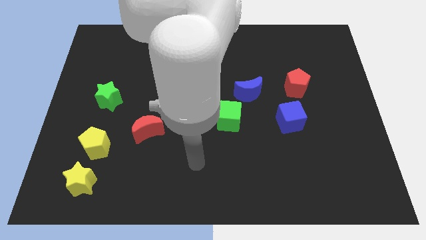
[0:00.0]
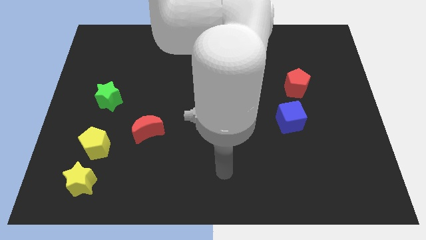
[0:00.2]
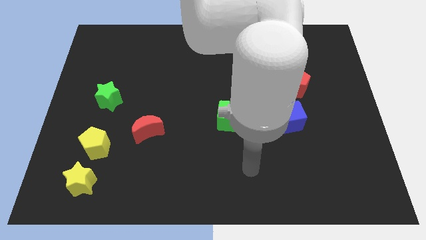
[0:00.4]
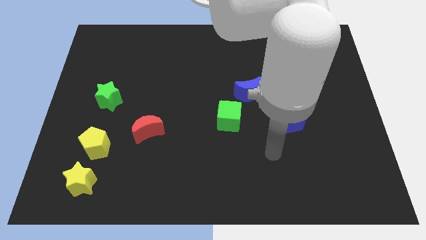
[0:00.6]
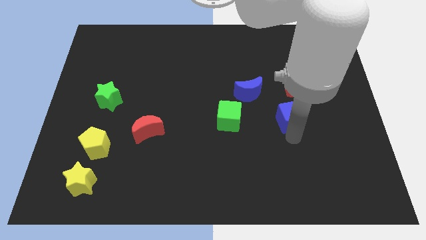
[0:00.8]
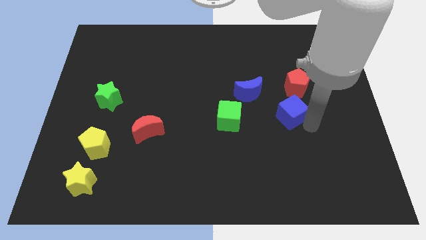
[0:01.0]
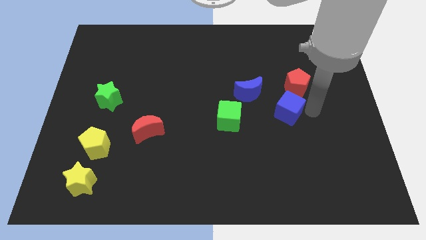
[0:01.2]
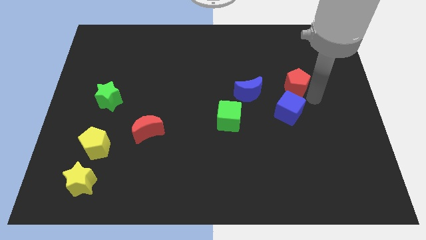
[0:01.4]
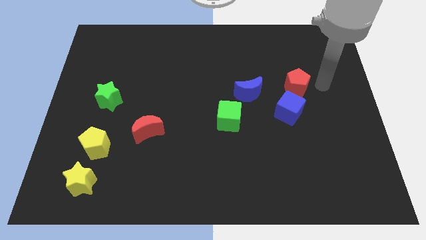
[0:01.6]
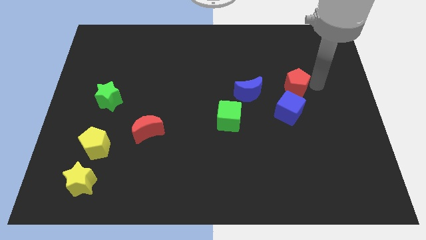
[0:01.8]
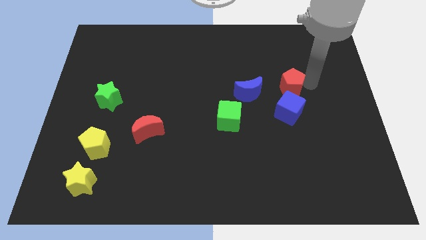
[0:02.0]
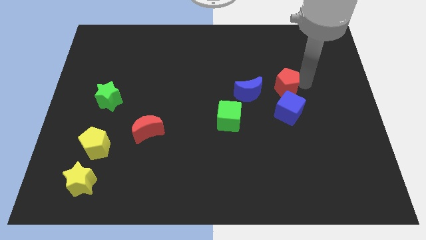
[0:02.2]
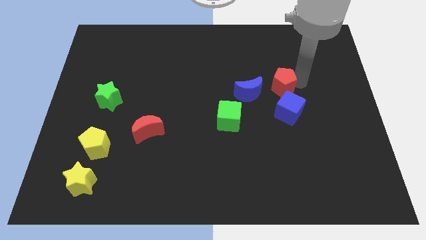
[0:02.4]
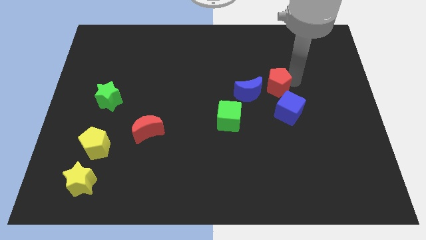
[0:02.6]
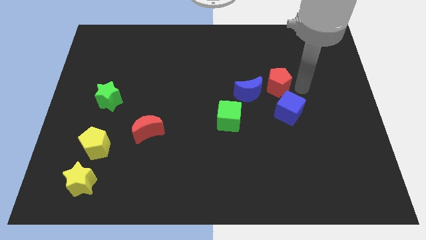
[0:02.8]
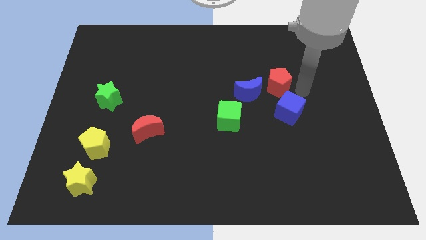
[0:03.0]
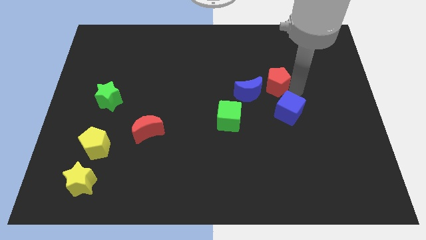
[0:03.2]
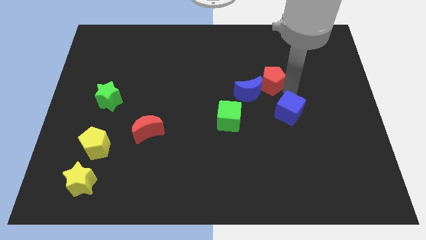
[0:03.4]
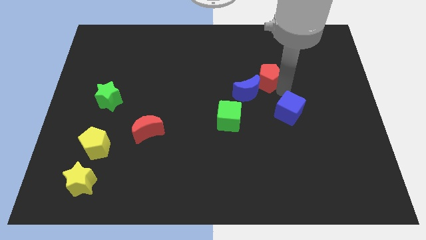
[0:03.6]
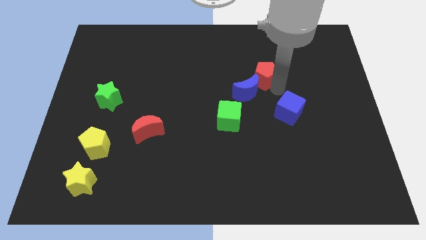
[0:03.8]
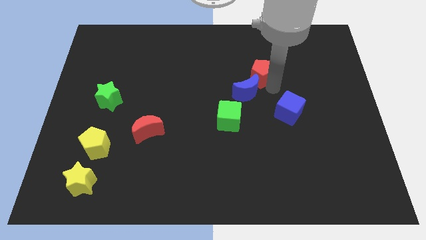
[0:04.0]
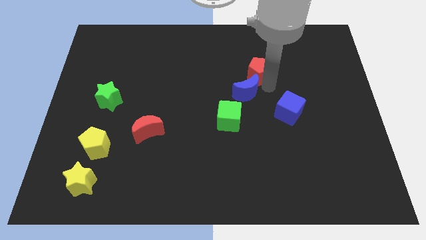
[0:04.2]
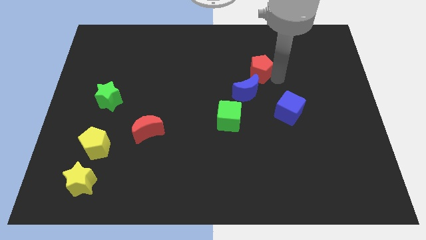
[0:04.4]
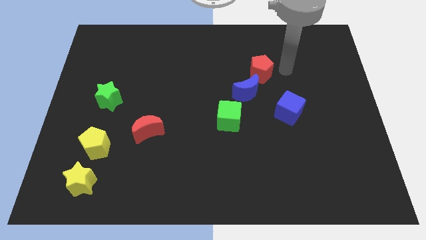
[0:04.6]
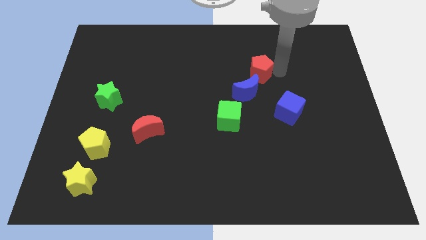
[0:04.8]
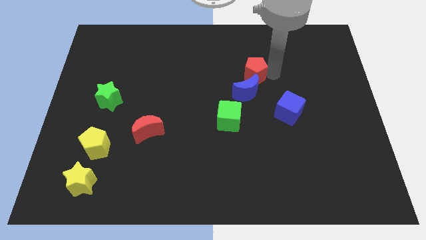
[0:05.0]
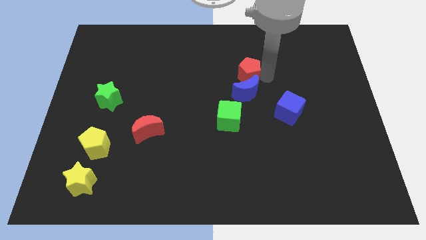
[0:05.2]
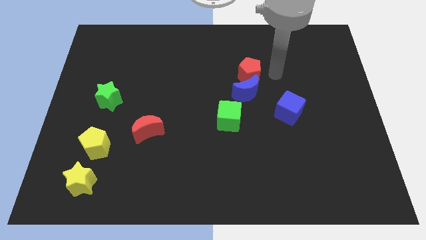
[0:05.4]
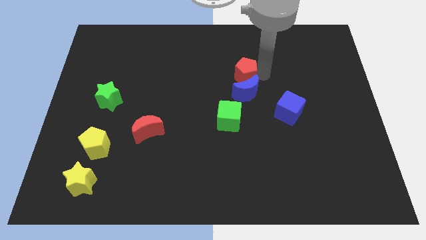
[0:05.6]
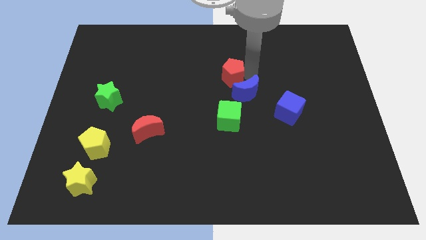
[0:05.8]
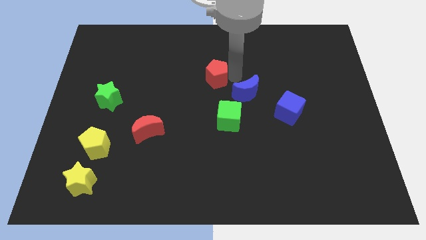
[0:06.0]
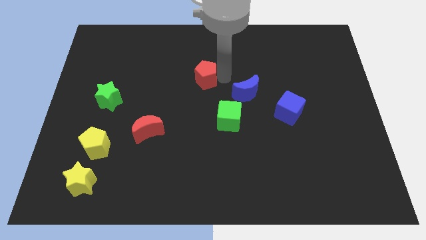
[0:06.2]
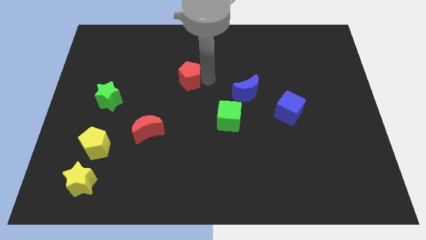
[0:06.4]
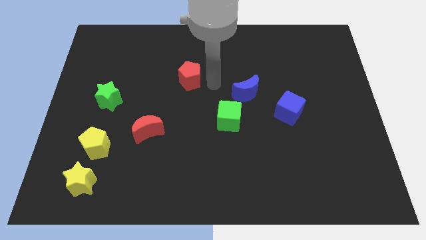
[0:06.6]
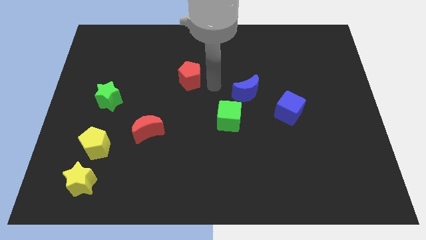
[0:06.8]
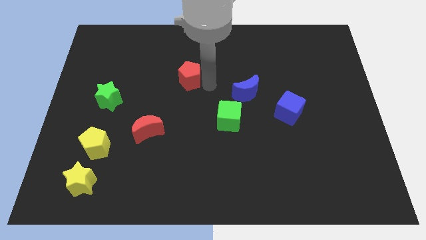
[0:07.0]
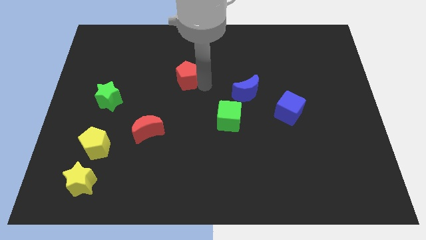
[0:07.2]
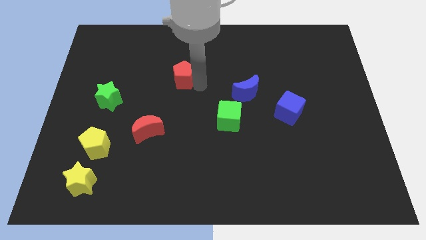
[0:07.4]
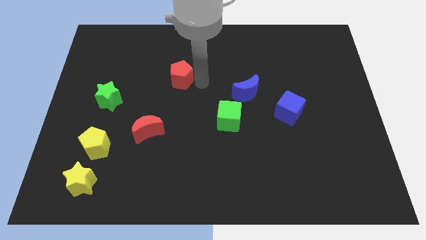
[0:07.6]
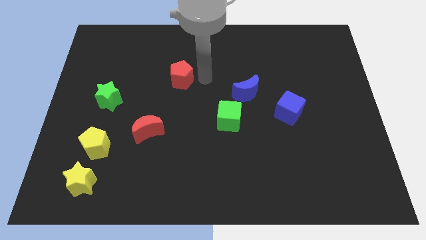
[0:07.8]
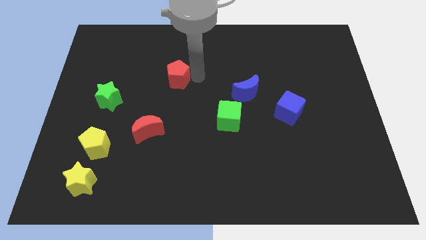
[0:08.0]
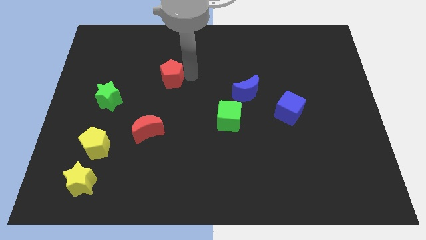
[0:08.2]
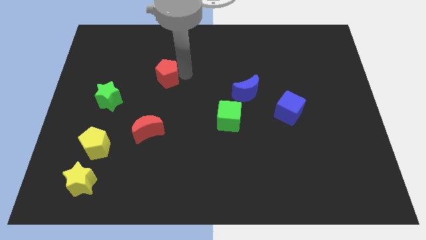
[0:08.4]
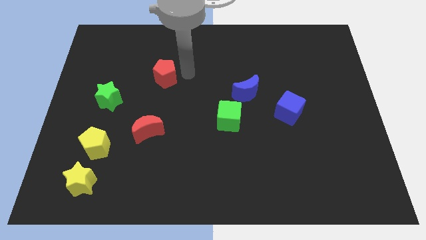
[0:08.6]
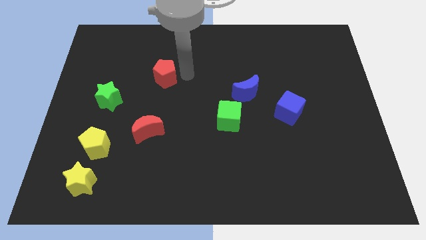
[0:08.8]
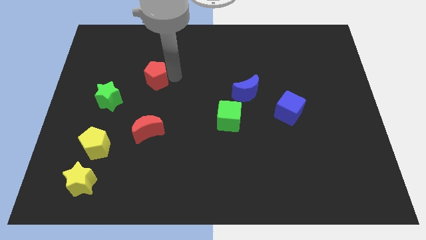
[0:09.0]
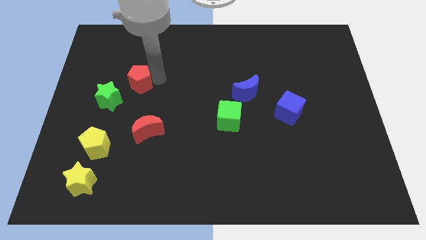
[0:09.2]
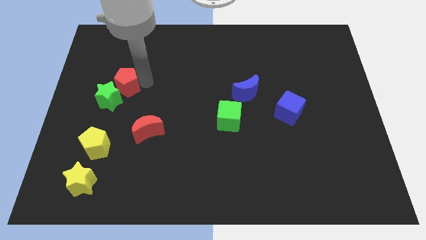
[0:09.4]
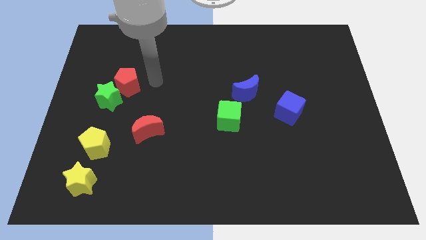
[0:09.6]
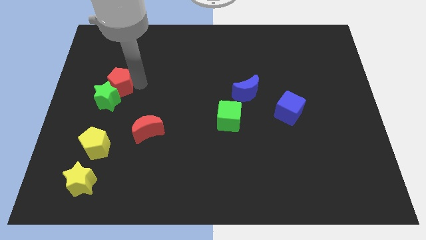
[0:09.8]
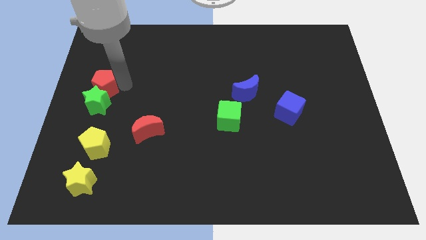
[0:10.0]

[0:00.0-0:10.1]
slide the red pentagon to the left side

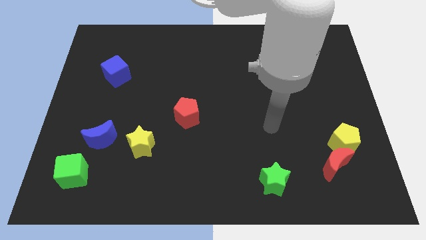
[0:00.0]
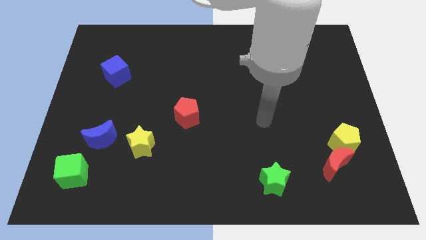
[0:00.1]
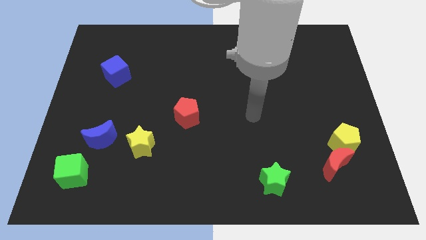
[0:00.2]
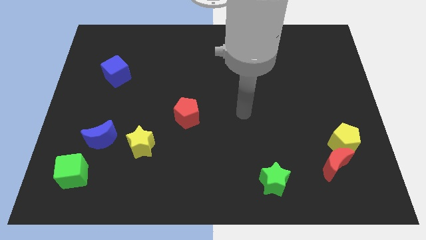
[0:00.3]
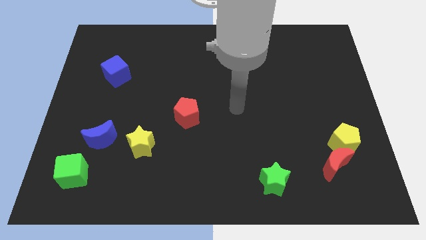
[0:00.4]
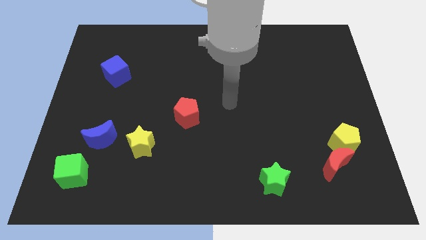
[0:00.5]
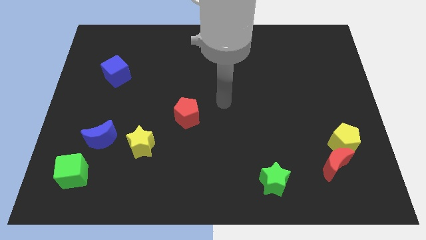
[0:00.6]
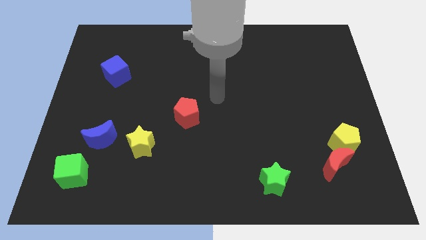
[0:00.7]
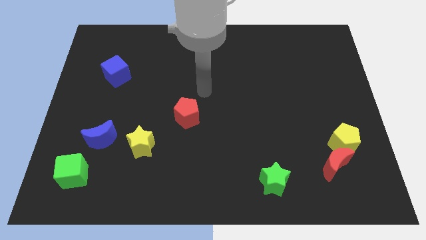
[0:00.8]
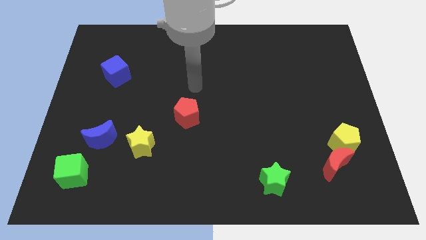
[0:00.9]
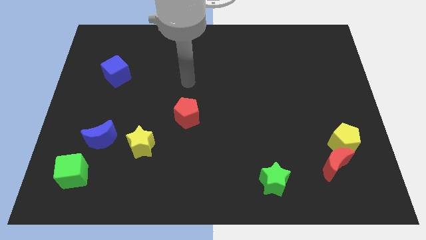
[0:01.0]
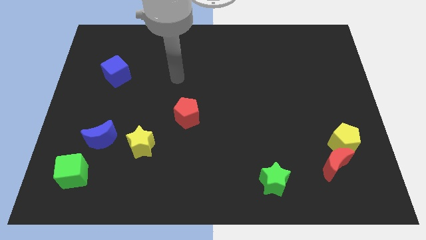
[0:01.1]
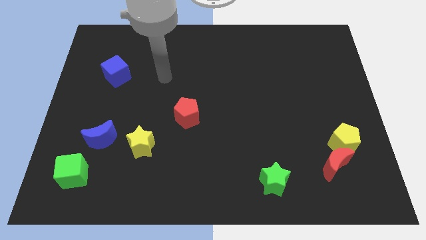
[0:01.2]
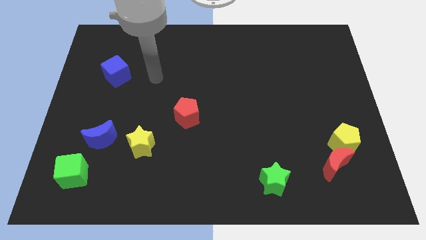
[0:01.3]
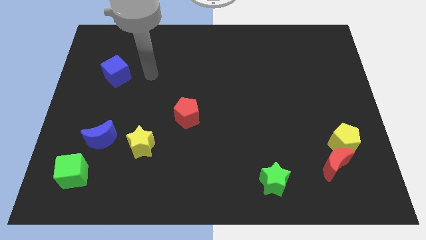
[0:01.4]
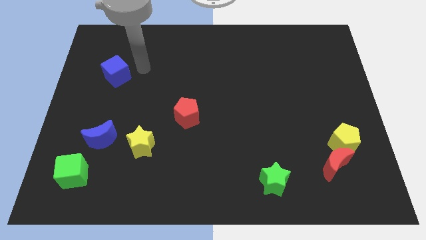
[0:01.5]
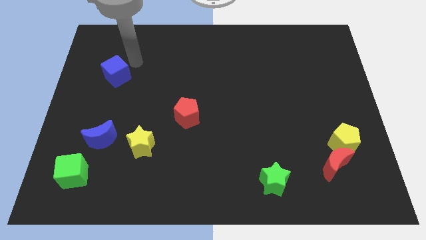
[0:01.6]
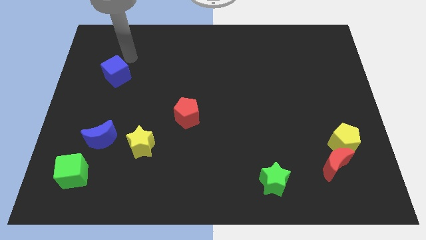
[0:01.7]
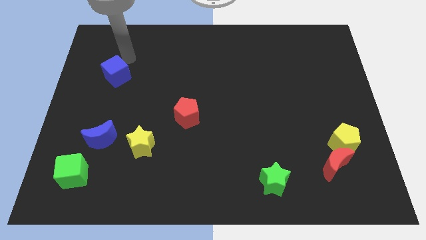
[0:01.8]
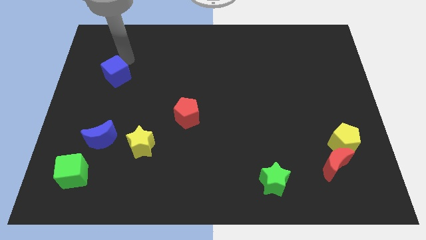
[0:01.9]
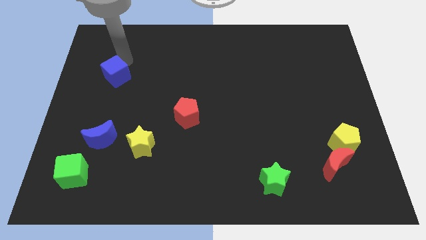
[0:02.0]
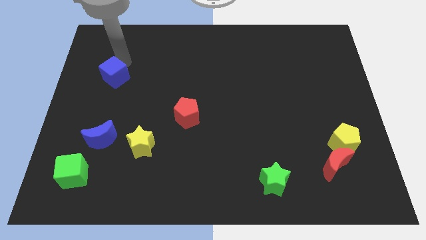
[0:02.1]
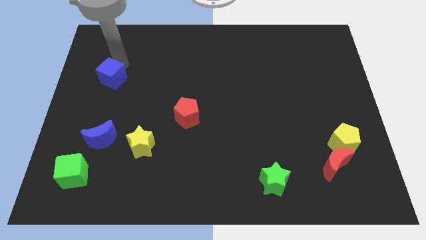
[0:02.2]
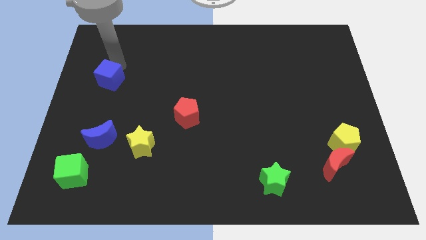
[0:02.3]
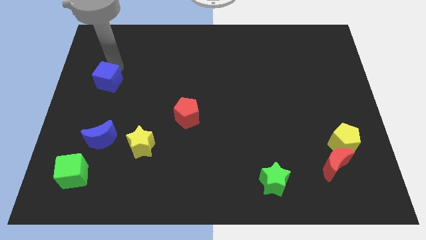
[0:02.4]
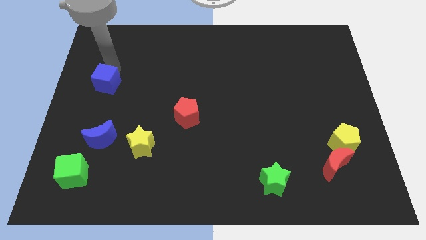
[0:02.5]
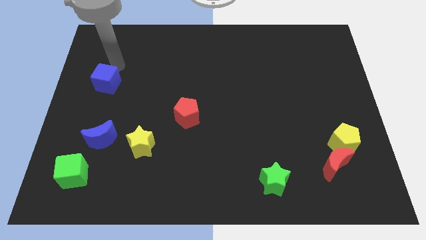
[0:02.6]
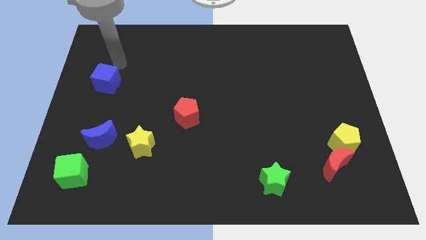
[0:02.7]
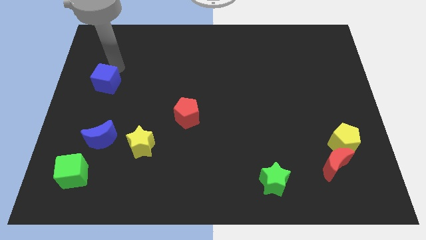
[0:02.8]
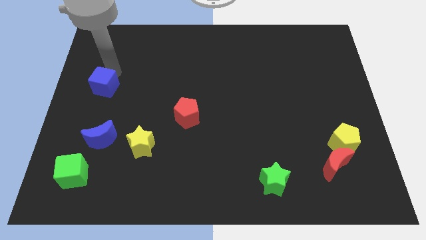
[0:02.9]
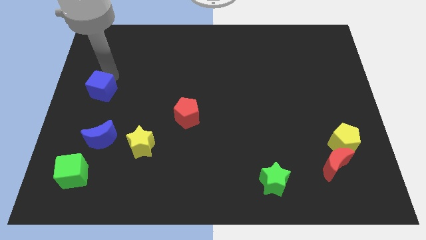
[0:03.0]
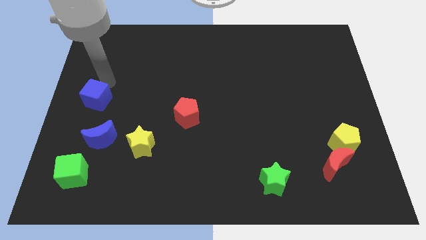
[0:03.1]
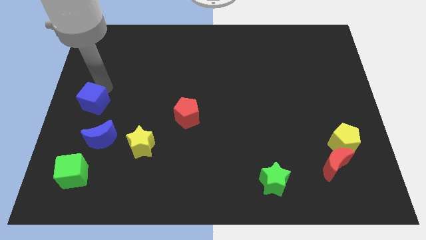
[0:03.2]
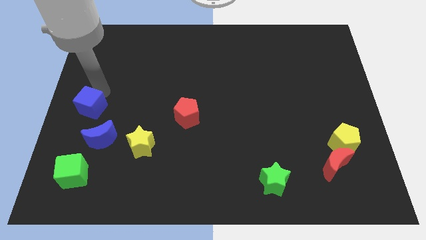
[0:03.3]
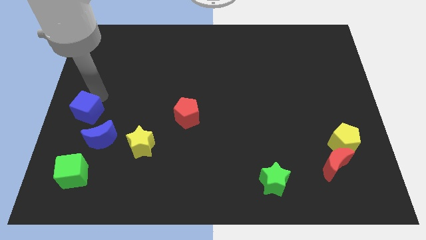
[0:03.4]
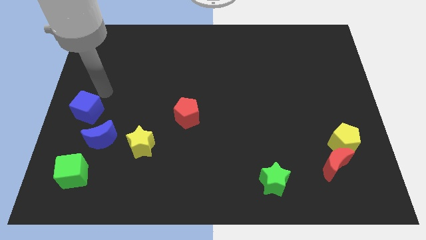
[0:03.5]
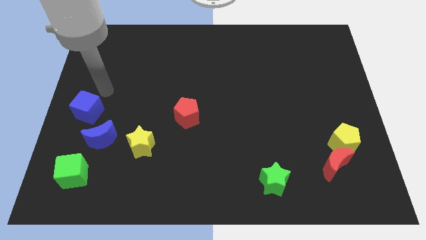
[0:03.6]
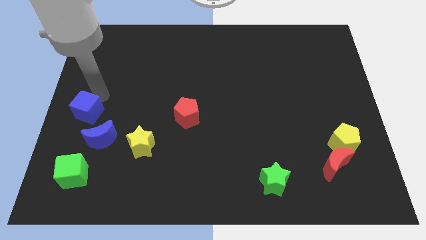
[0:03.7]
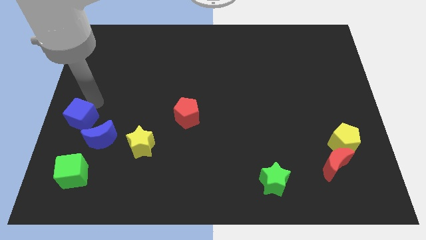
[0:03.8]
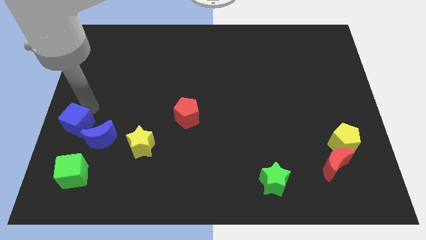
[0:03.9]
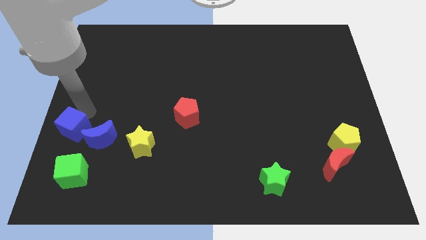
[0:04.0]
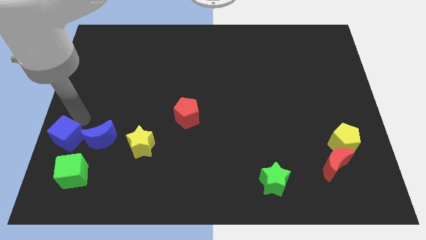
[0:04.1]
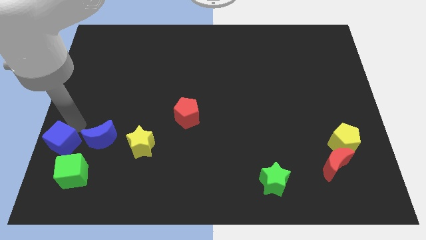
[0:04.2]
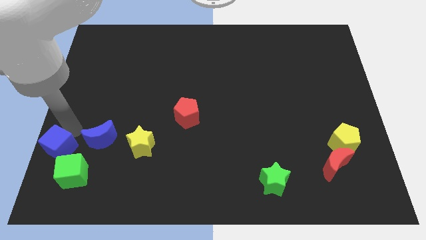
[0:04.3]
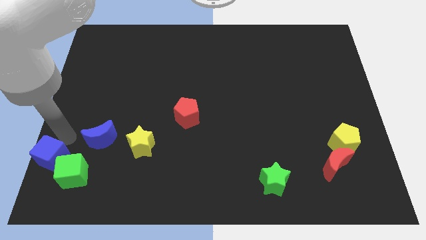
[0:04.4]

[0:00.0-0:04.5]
slide the blue cube to the bottom left of the board
